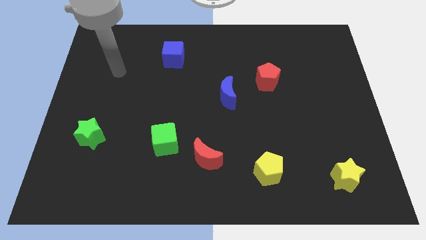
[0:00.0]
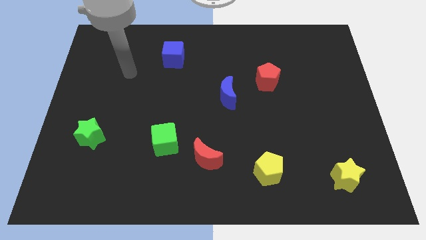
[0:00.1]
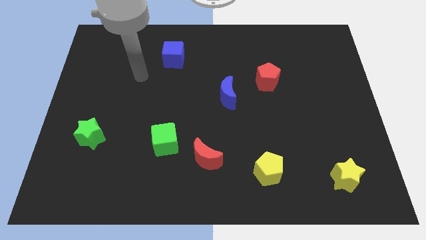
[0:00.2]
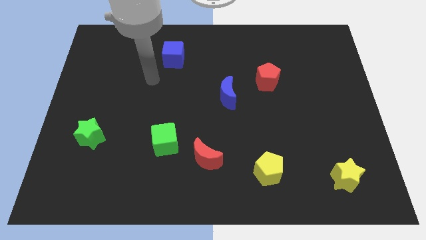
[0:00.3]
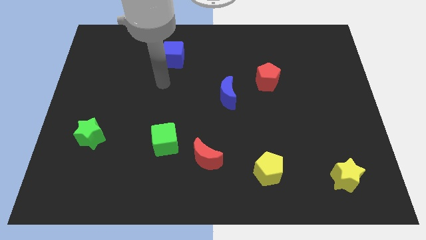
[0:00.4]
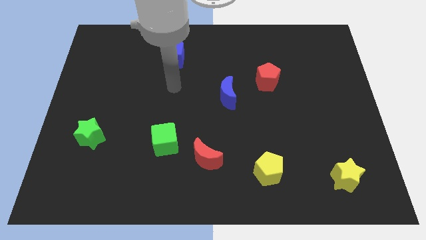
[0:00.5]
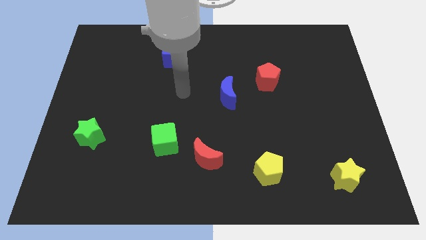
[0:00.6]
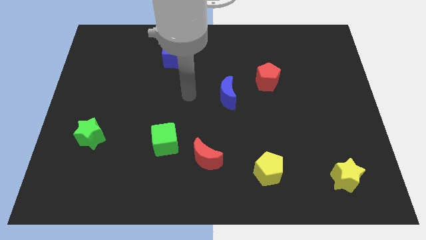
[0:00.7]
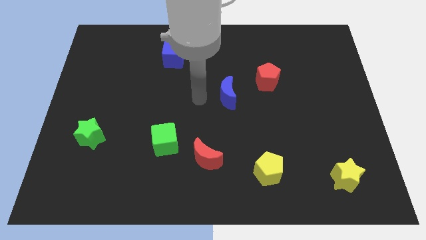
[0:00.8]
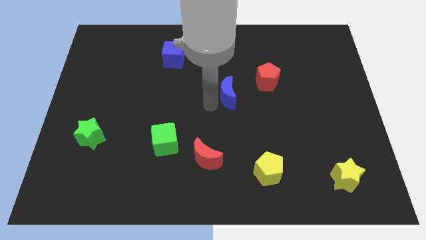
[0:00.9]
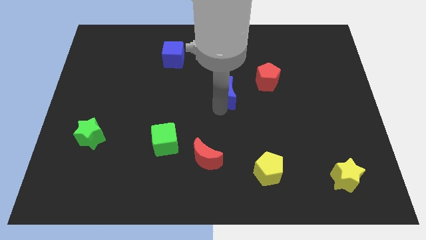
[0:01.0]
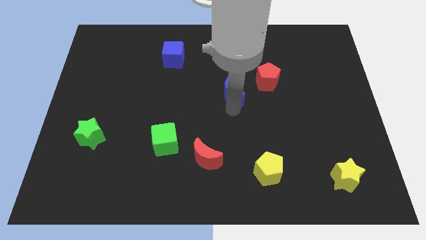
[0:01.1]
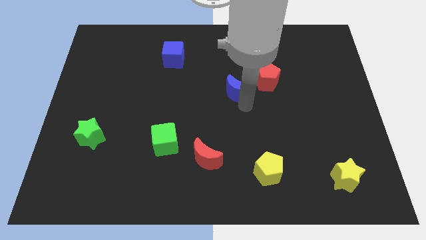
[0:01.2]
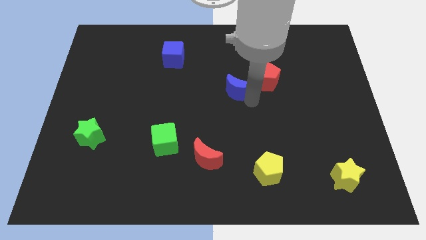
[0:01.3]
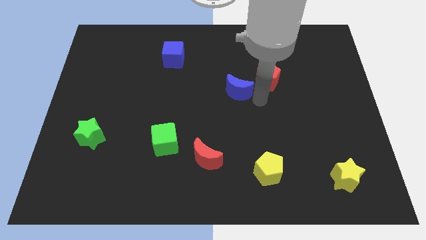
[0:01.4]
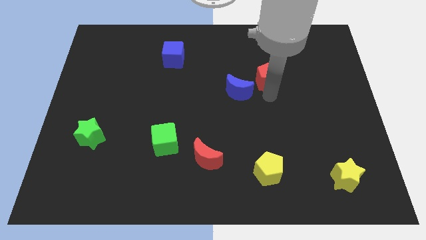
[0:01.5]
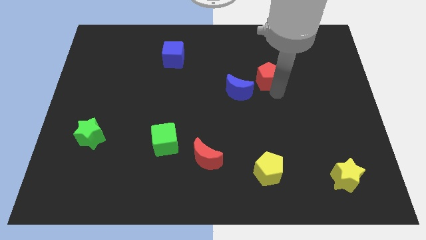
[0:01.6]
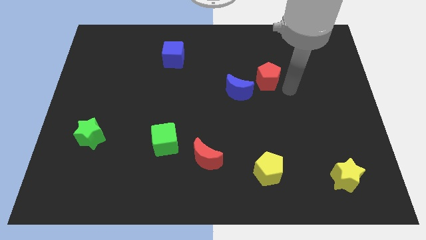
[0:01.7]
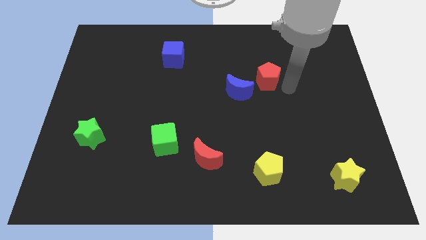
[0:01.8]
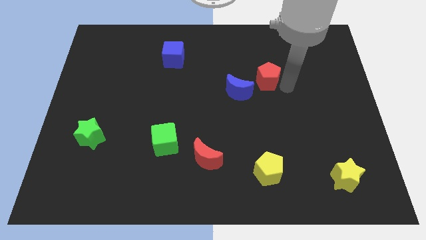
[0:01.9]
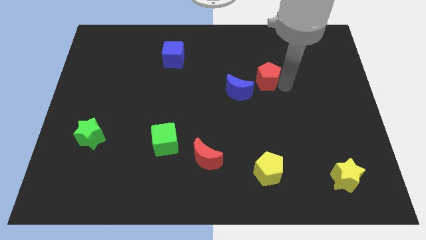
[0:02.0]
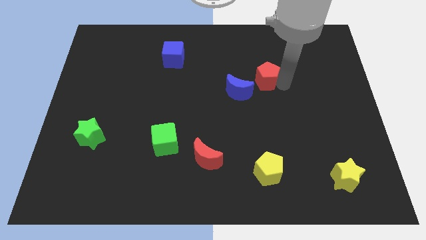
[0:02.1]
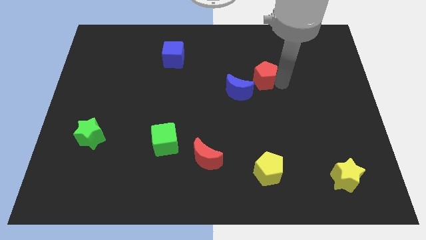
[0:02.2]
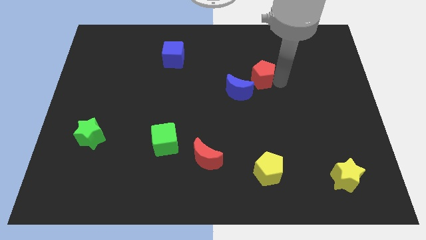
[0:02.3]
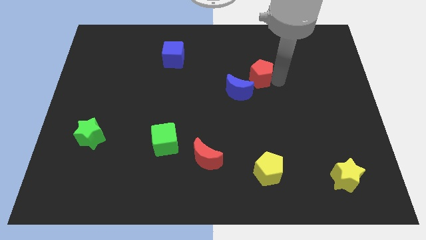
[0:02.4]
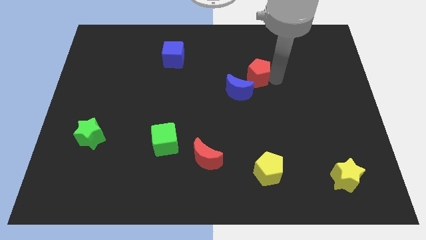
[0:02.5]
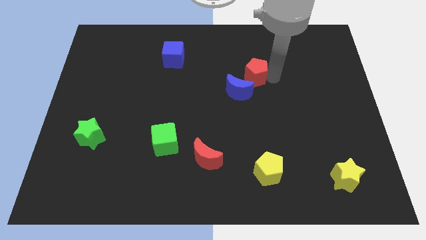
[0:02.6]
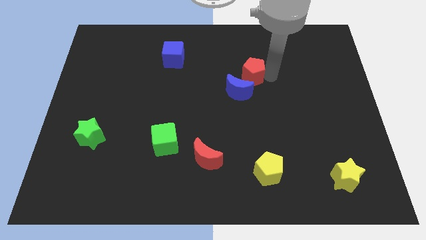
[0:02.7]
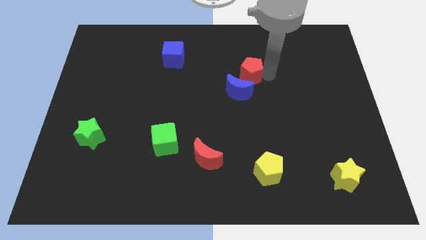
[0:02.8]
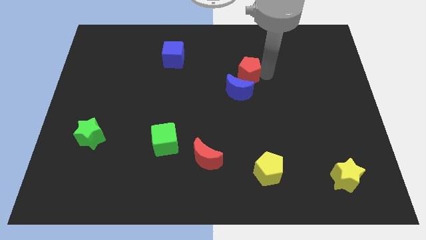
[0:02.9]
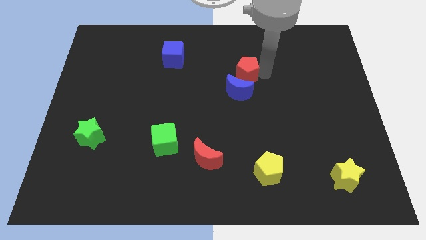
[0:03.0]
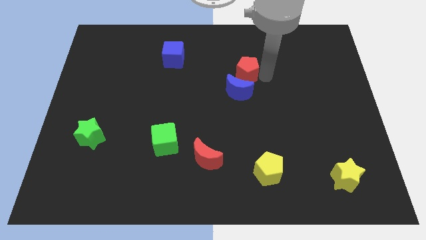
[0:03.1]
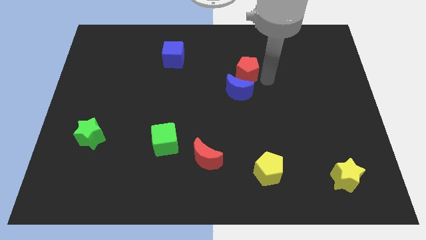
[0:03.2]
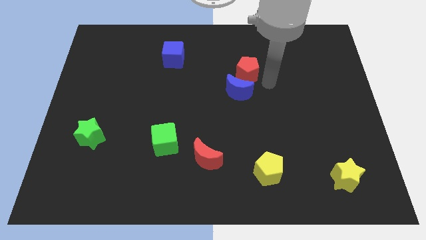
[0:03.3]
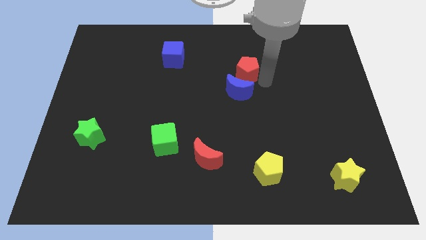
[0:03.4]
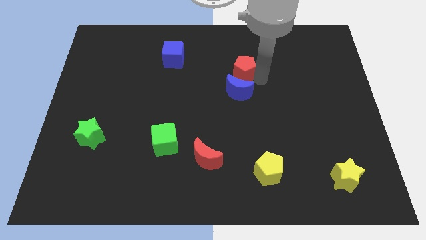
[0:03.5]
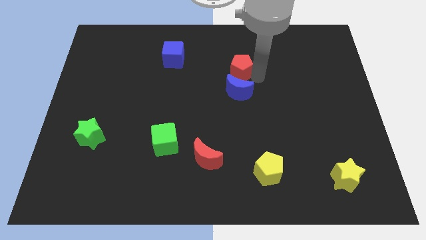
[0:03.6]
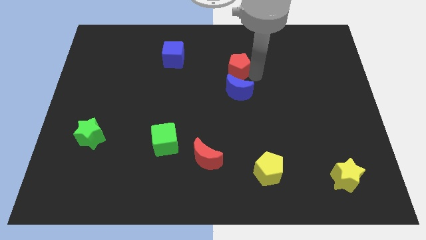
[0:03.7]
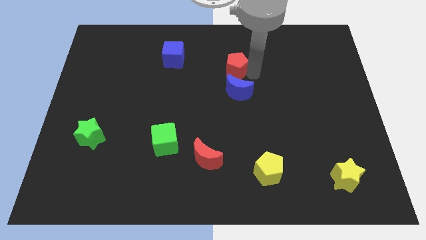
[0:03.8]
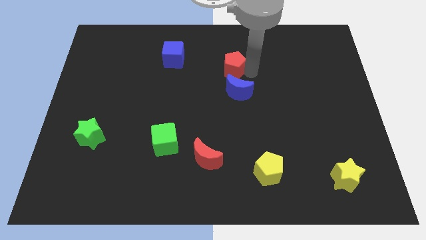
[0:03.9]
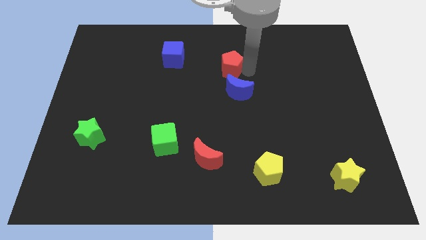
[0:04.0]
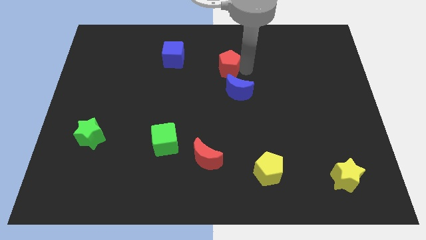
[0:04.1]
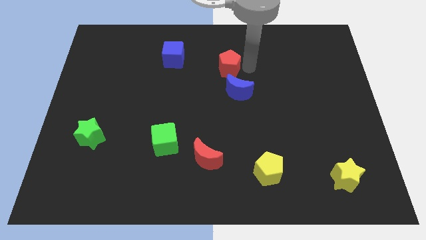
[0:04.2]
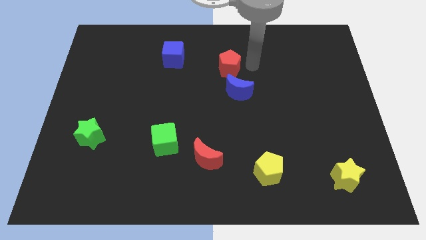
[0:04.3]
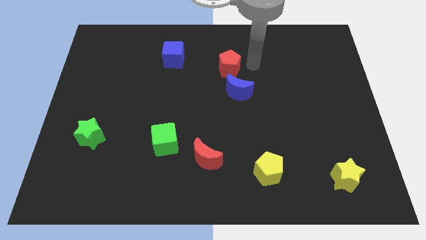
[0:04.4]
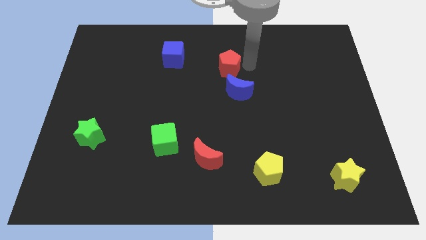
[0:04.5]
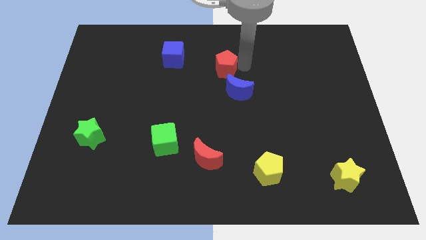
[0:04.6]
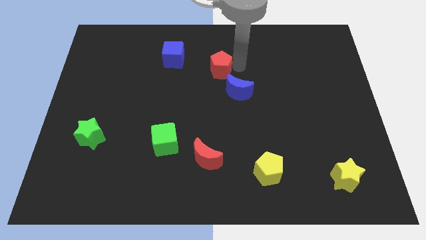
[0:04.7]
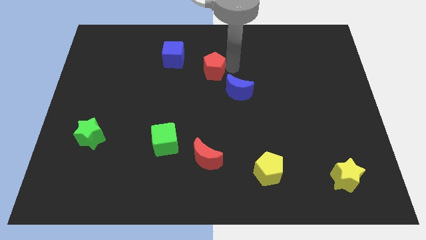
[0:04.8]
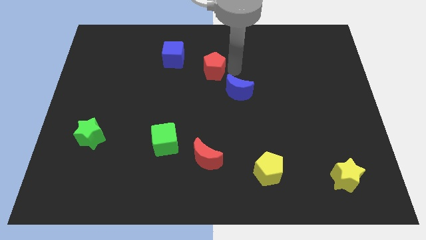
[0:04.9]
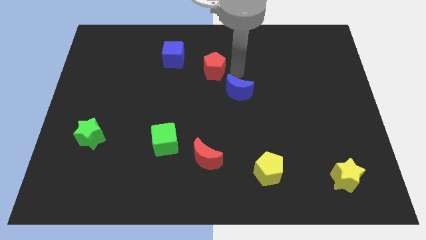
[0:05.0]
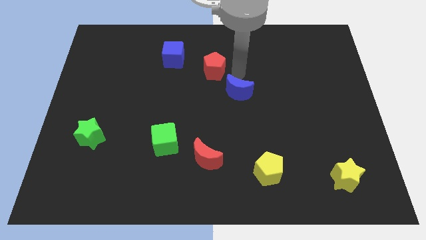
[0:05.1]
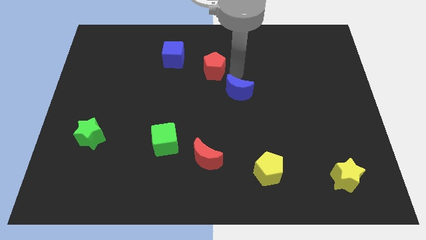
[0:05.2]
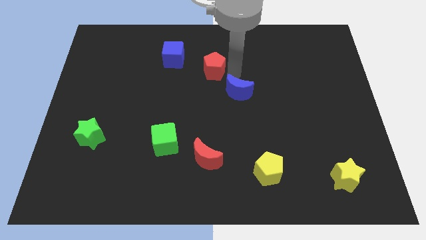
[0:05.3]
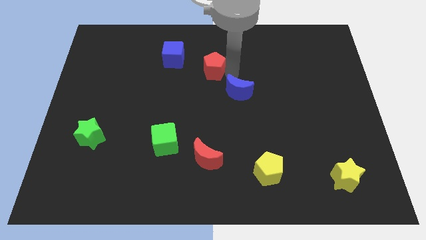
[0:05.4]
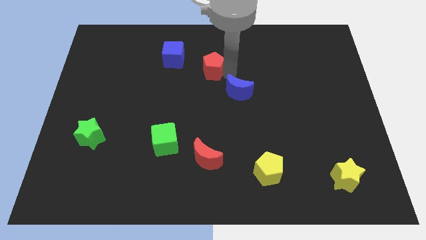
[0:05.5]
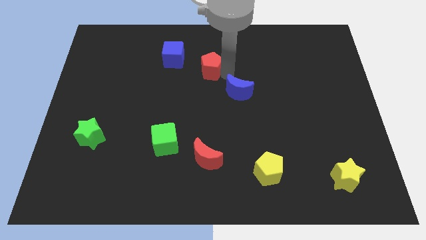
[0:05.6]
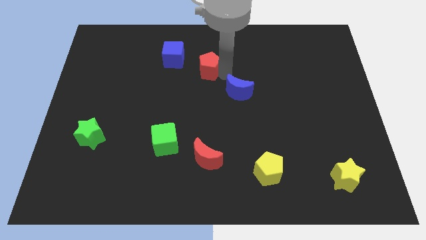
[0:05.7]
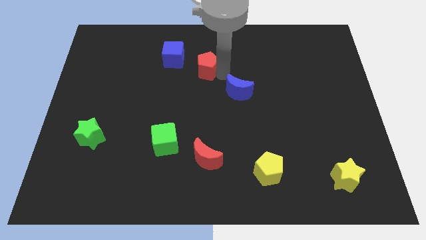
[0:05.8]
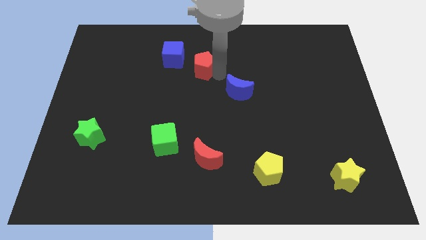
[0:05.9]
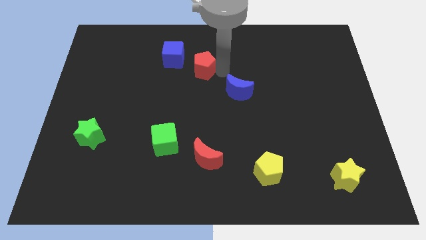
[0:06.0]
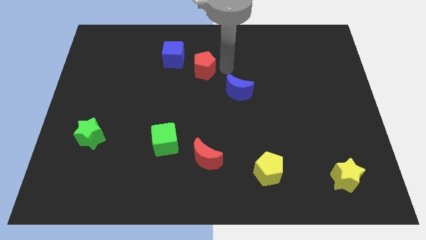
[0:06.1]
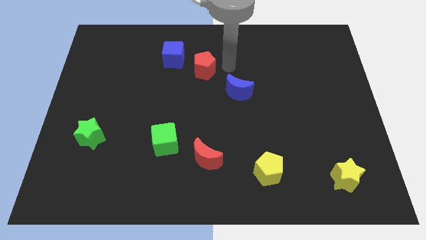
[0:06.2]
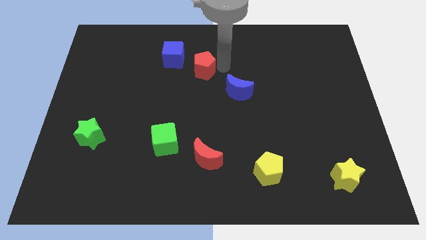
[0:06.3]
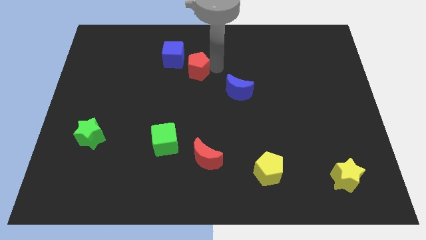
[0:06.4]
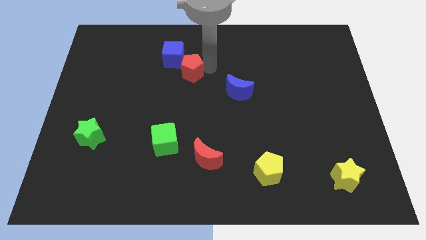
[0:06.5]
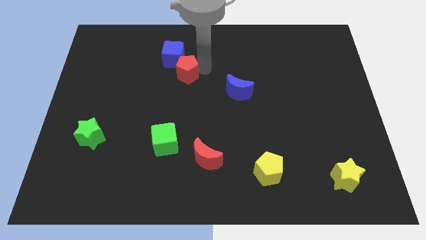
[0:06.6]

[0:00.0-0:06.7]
push the red pentagon left

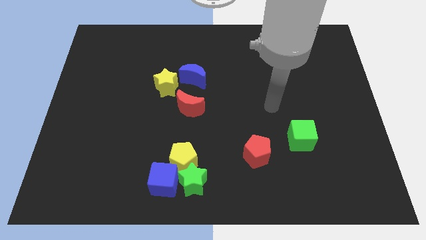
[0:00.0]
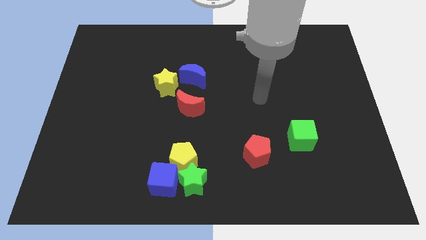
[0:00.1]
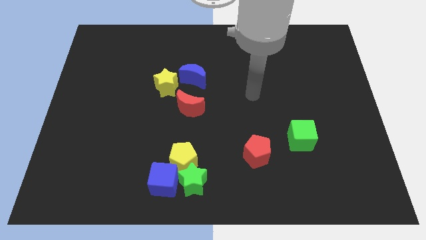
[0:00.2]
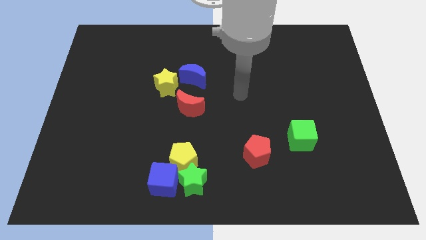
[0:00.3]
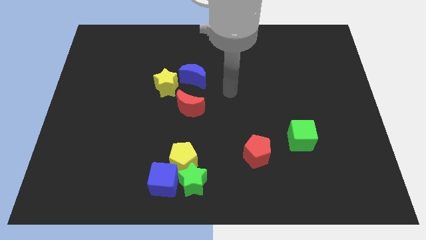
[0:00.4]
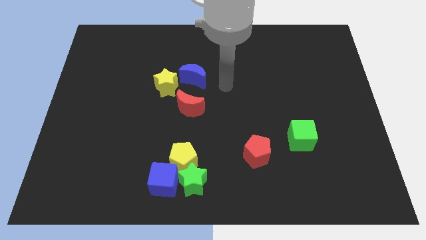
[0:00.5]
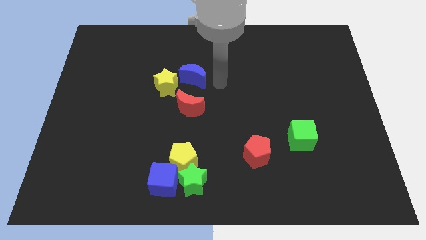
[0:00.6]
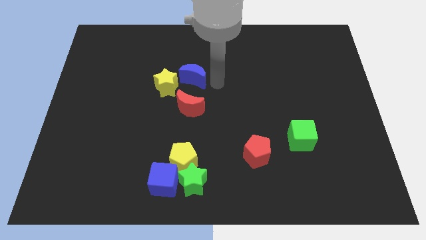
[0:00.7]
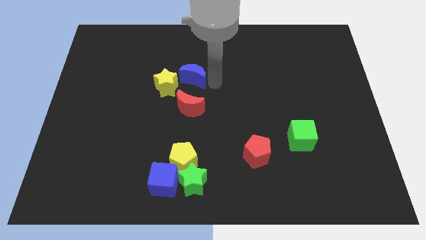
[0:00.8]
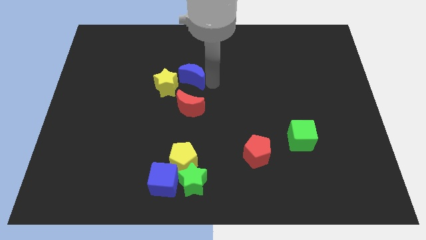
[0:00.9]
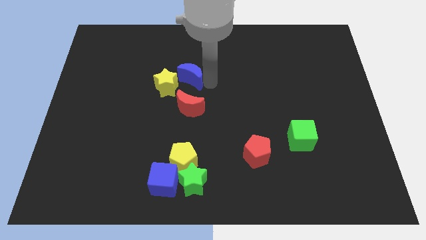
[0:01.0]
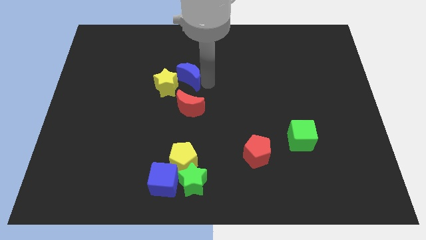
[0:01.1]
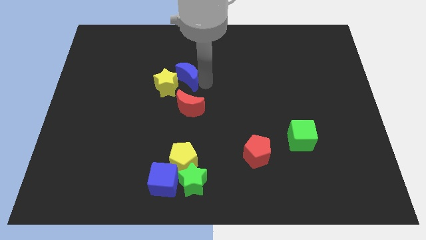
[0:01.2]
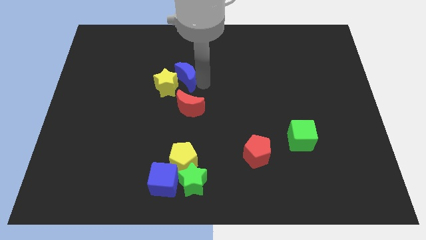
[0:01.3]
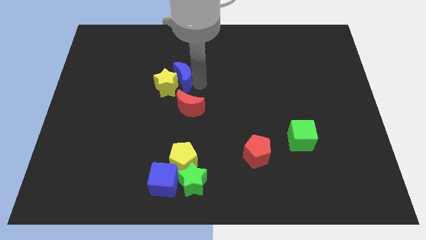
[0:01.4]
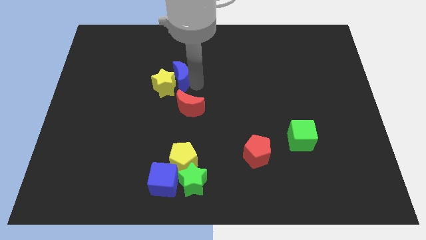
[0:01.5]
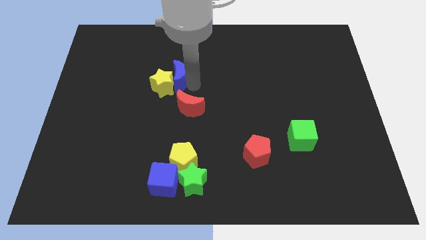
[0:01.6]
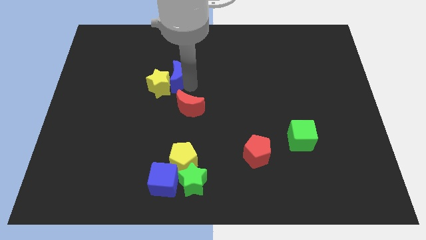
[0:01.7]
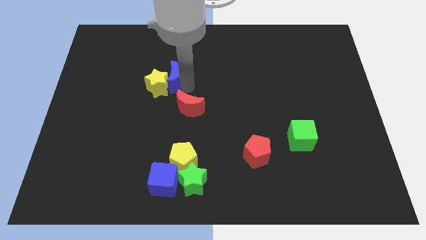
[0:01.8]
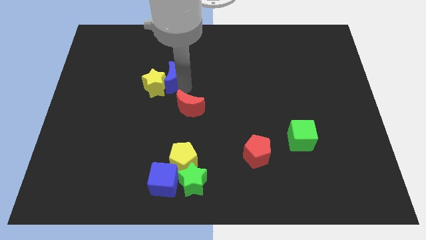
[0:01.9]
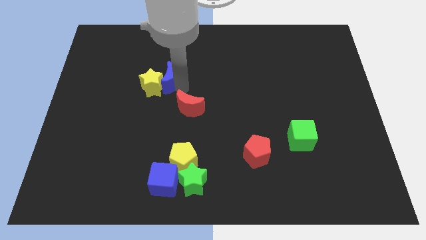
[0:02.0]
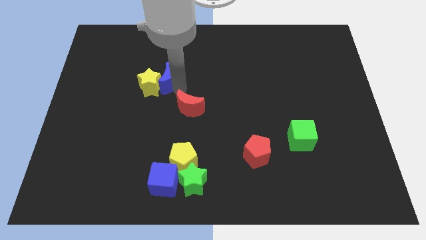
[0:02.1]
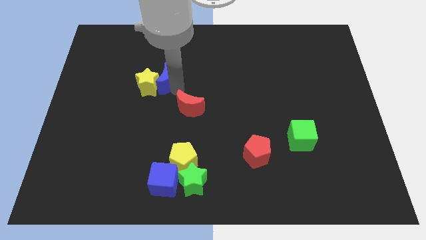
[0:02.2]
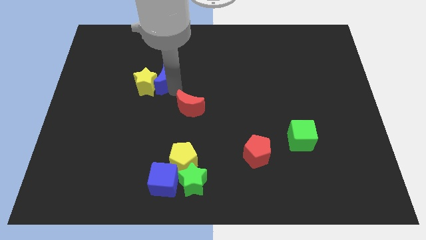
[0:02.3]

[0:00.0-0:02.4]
move the blue moon a bit to the left
